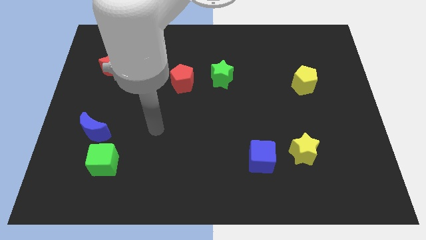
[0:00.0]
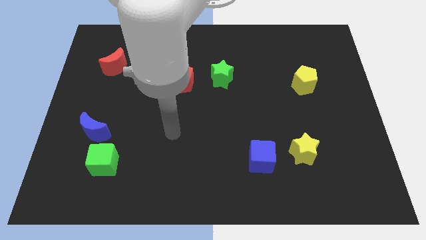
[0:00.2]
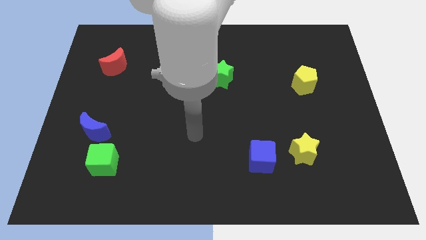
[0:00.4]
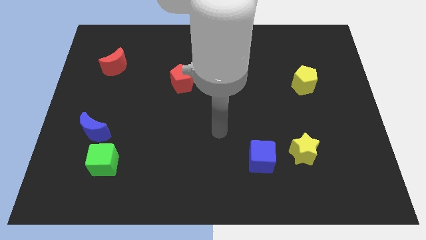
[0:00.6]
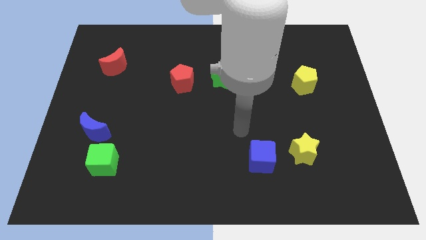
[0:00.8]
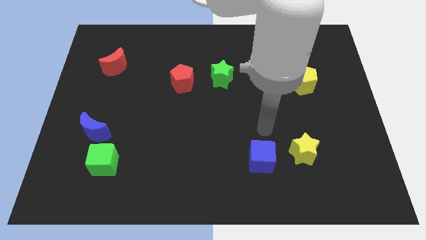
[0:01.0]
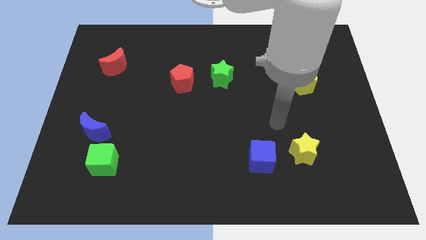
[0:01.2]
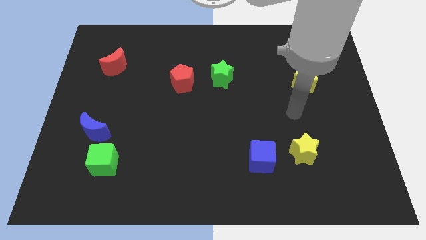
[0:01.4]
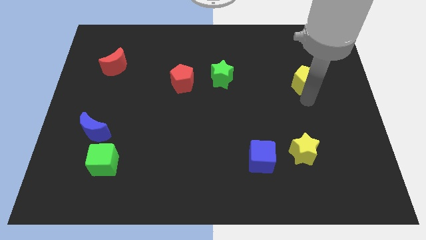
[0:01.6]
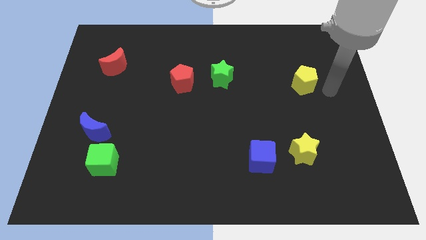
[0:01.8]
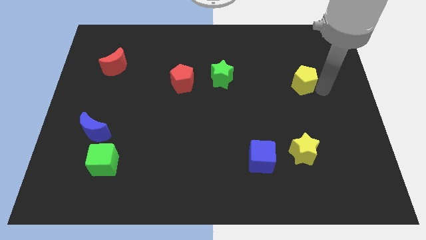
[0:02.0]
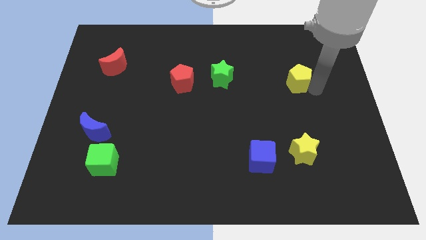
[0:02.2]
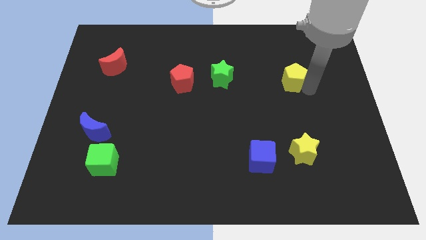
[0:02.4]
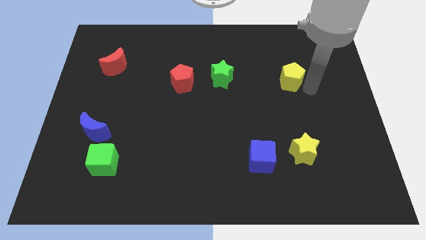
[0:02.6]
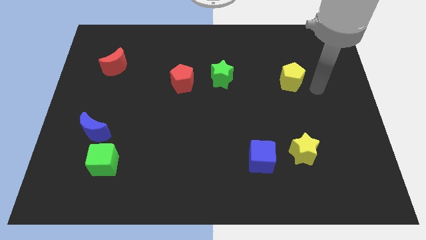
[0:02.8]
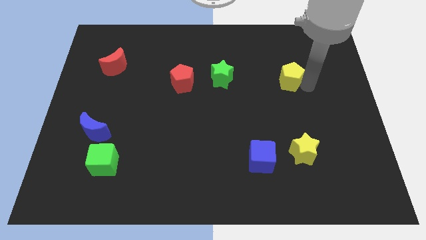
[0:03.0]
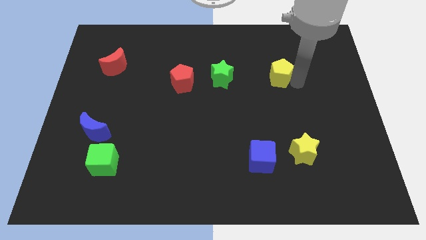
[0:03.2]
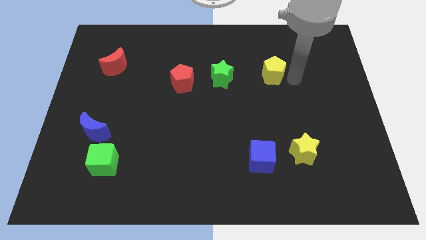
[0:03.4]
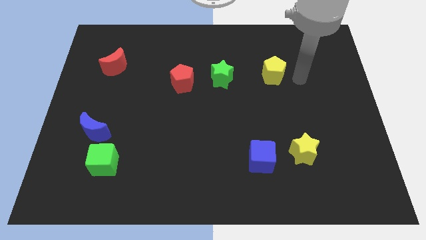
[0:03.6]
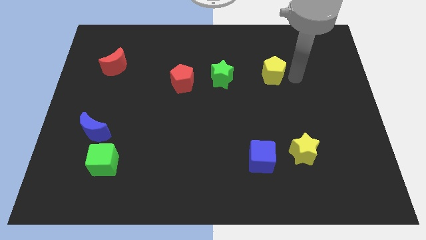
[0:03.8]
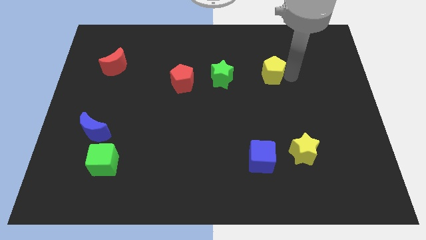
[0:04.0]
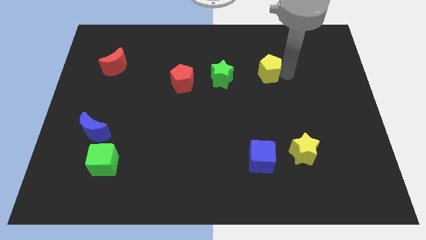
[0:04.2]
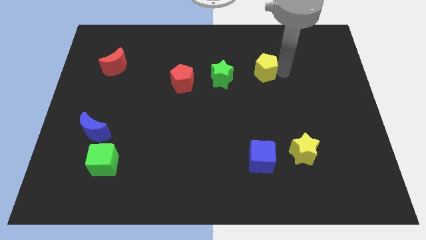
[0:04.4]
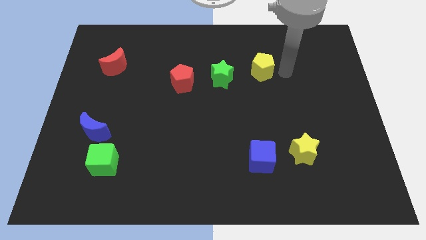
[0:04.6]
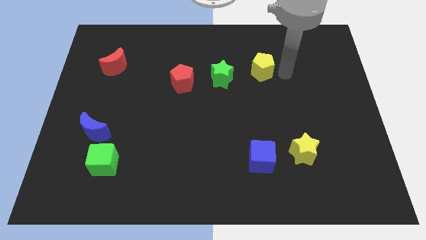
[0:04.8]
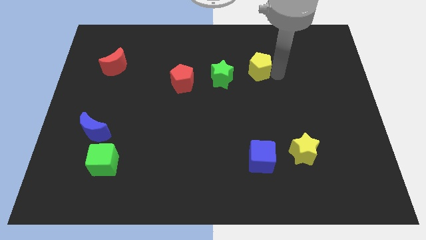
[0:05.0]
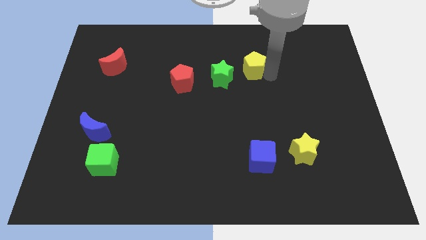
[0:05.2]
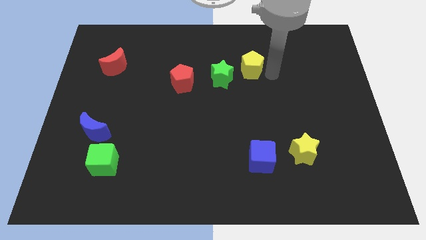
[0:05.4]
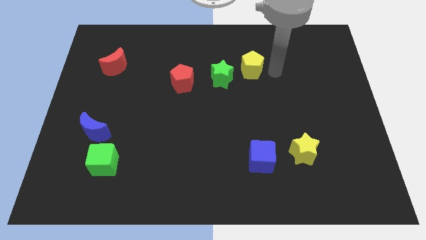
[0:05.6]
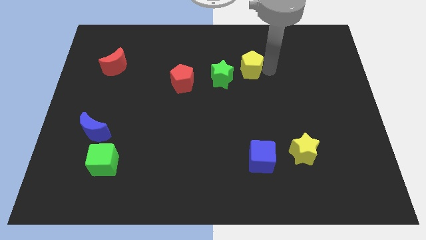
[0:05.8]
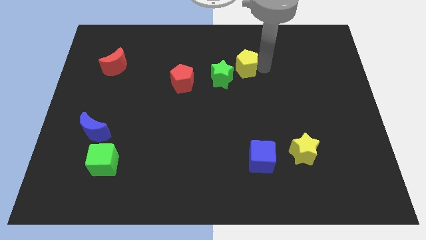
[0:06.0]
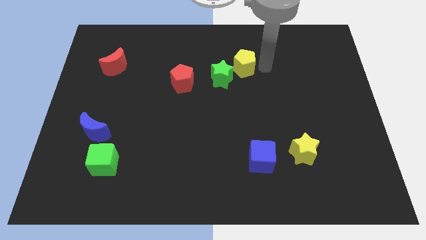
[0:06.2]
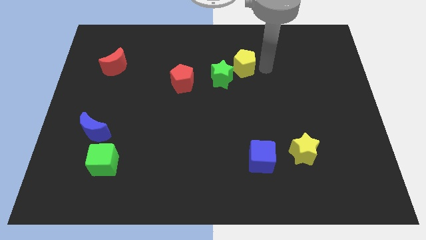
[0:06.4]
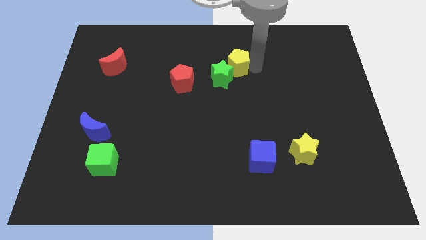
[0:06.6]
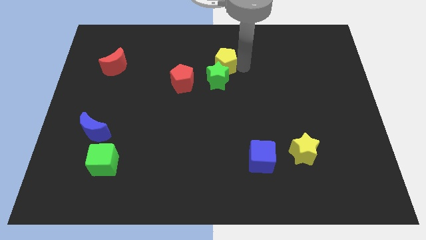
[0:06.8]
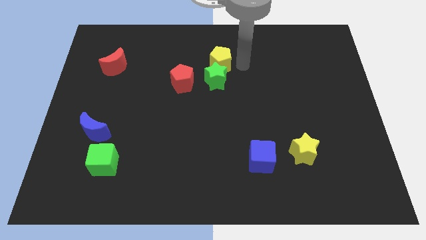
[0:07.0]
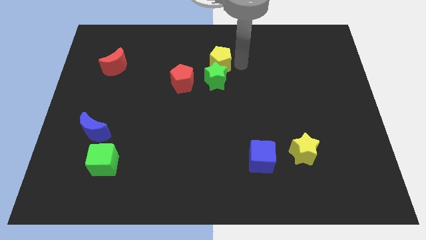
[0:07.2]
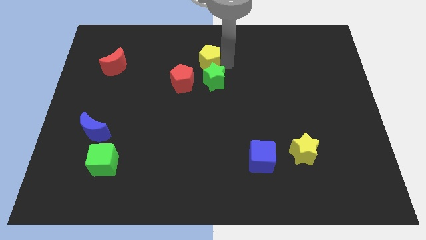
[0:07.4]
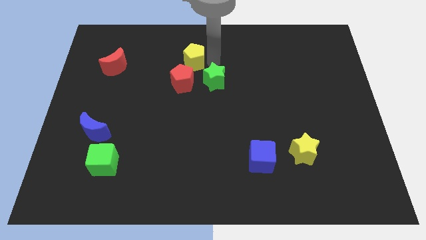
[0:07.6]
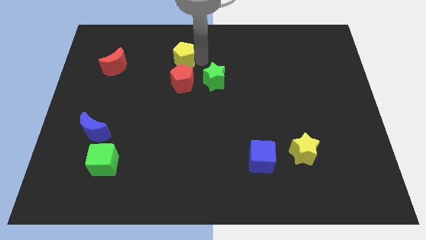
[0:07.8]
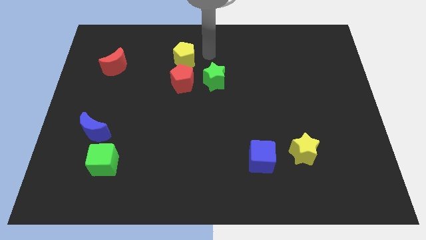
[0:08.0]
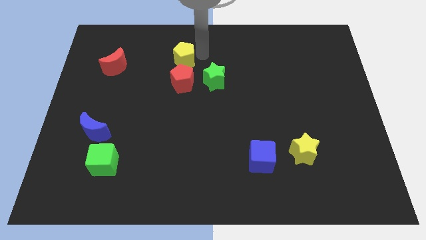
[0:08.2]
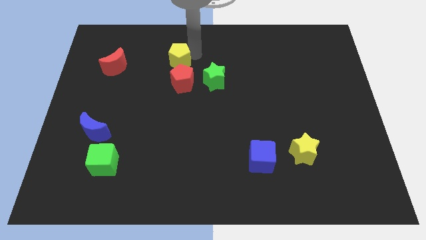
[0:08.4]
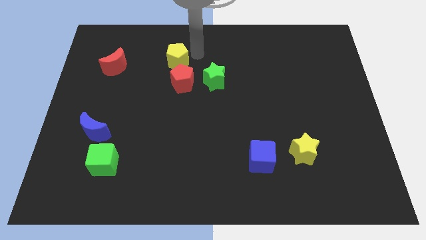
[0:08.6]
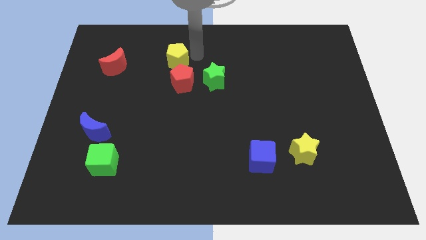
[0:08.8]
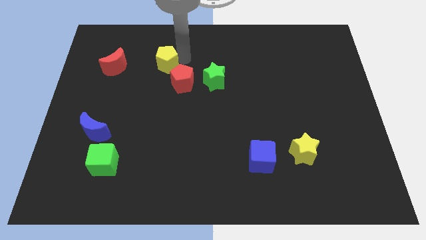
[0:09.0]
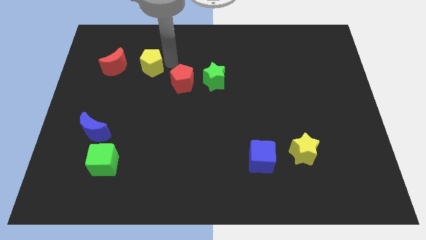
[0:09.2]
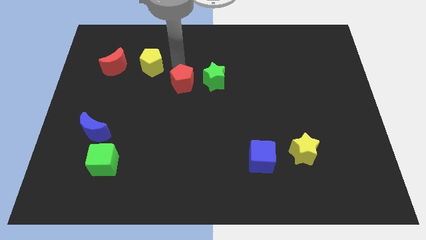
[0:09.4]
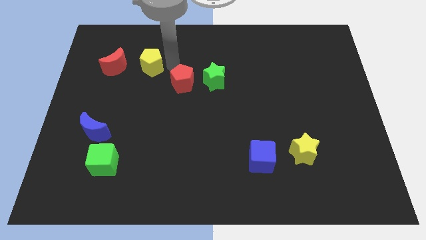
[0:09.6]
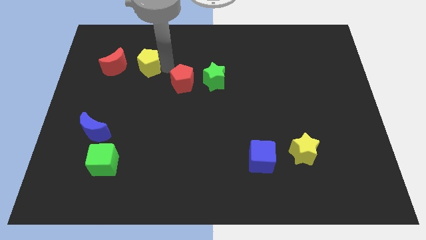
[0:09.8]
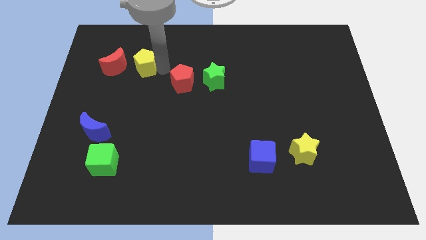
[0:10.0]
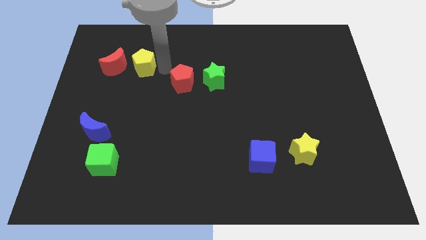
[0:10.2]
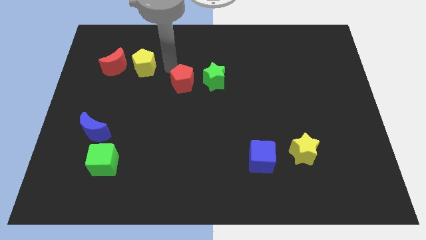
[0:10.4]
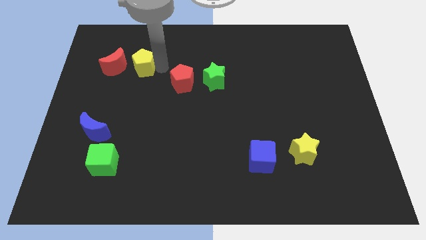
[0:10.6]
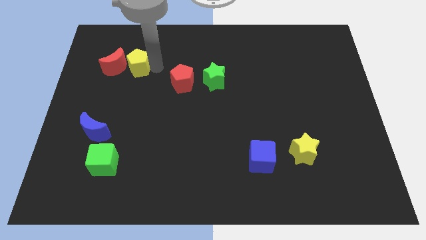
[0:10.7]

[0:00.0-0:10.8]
move the yellow pentagon next to the red moon

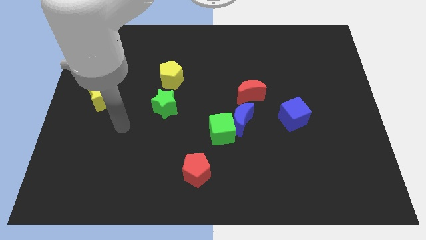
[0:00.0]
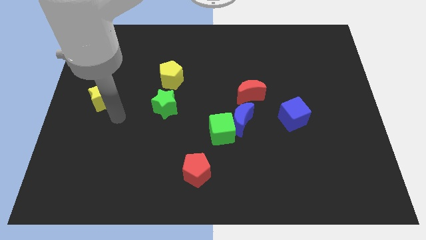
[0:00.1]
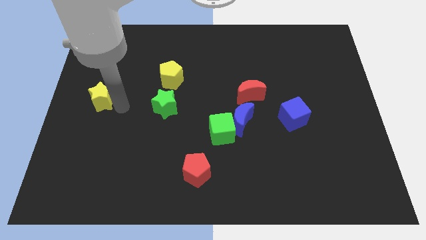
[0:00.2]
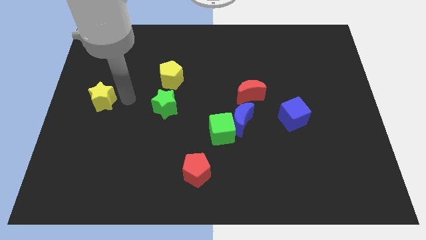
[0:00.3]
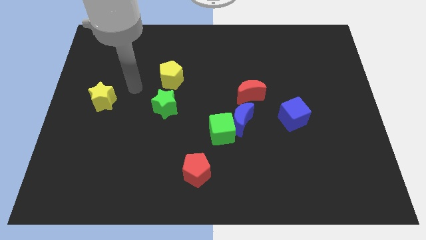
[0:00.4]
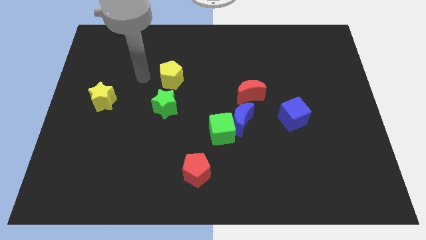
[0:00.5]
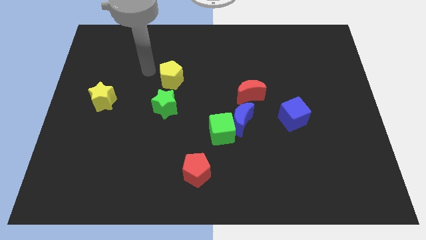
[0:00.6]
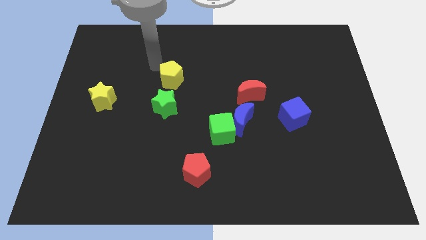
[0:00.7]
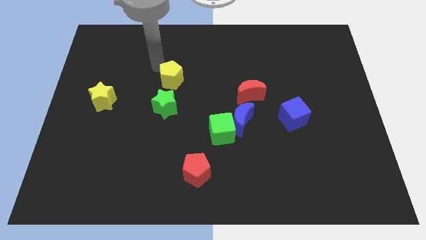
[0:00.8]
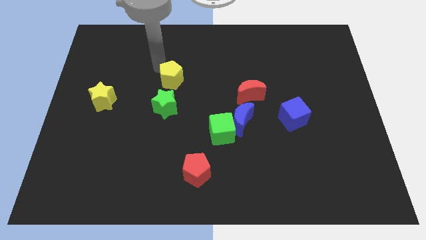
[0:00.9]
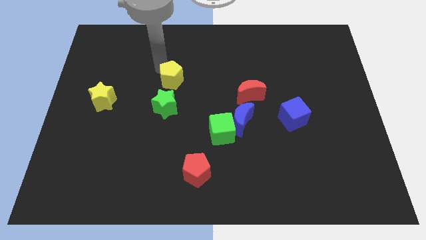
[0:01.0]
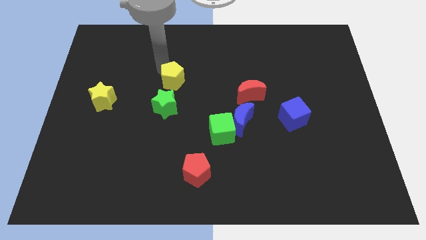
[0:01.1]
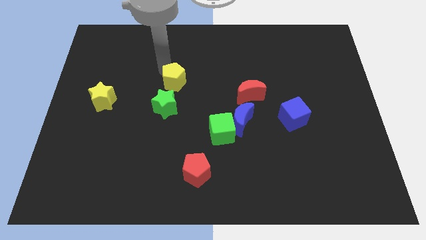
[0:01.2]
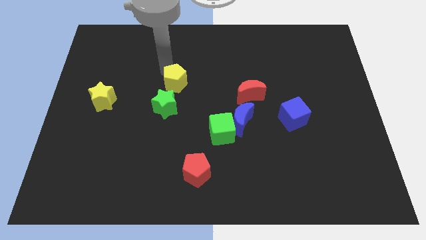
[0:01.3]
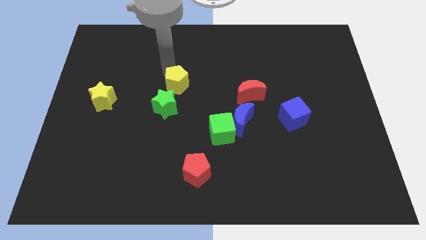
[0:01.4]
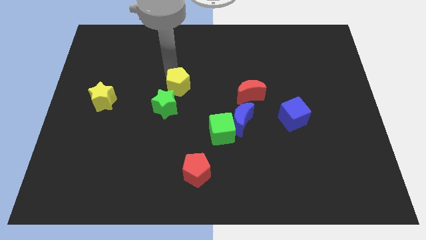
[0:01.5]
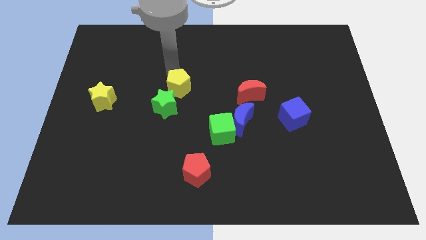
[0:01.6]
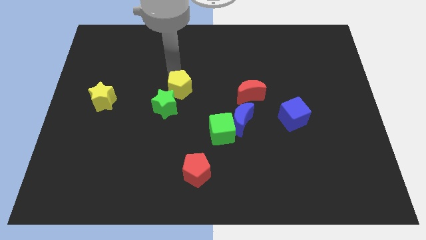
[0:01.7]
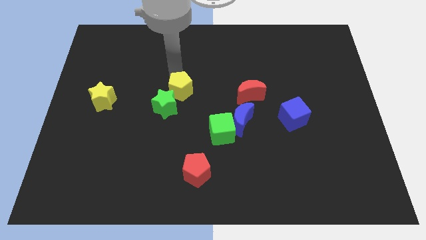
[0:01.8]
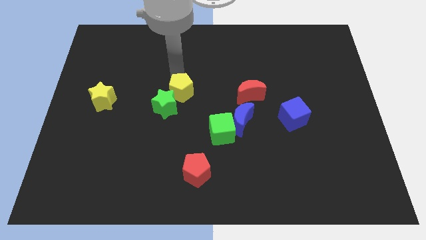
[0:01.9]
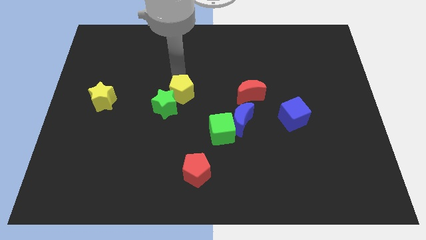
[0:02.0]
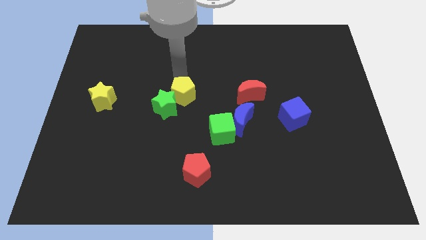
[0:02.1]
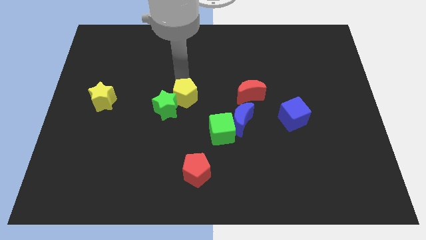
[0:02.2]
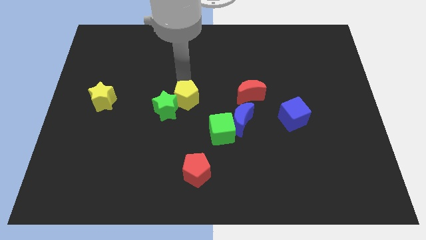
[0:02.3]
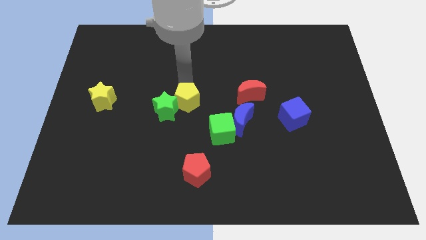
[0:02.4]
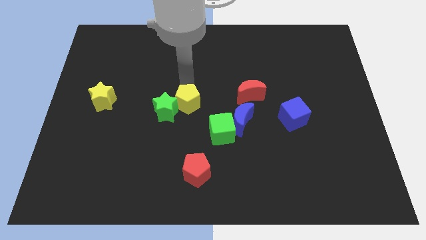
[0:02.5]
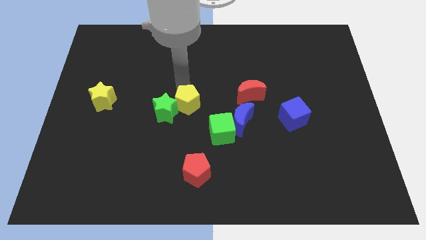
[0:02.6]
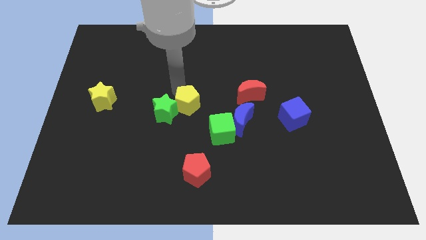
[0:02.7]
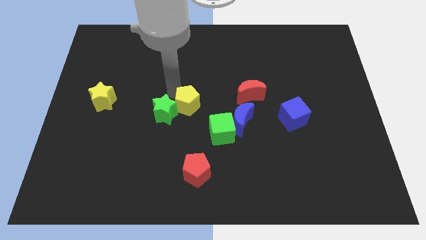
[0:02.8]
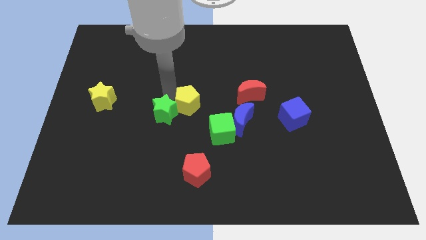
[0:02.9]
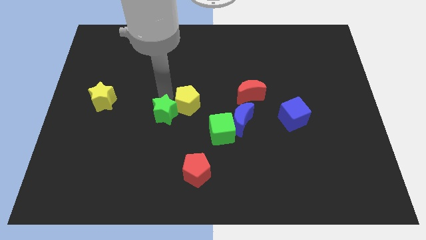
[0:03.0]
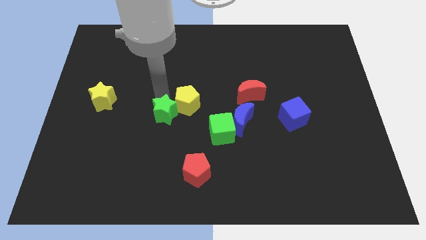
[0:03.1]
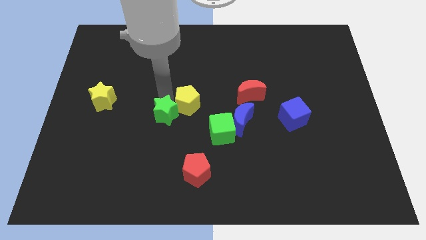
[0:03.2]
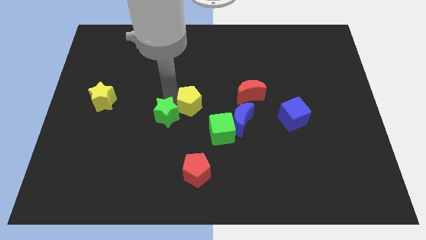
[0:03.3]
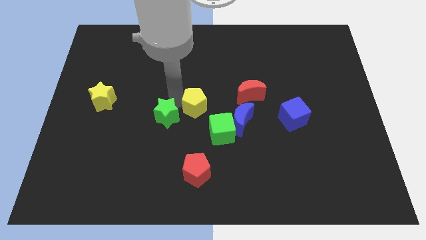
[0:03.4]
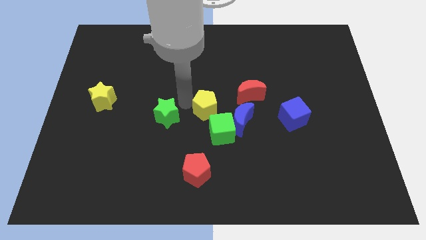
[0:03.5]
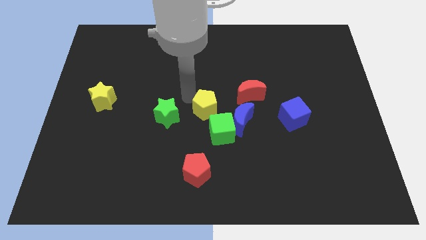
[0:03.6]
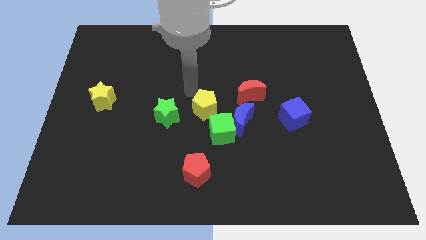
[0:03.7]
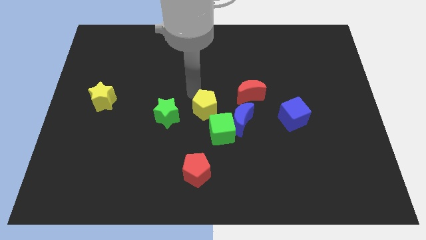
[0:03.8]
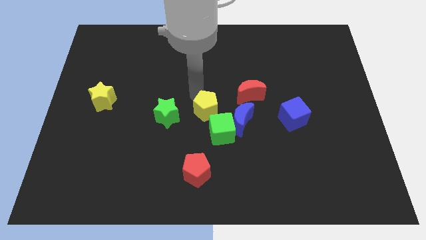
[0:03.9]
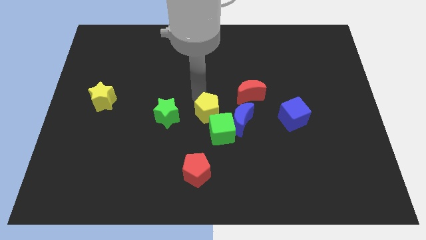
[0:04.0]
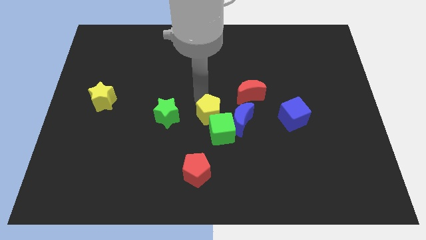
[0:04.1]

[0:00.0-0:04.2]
move the yellow pentagon next to the green cube
